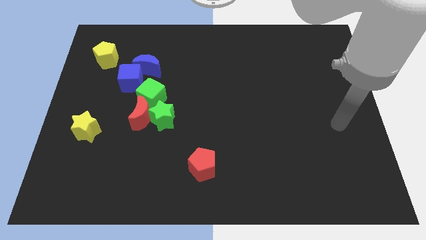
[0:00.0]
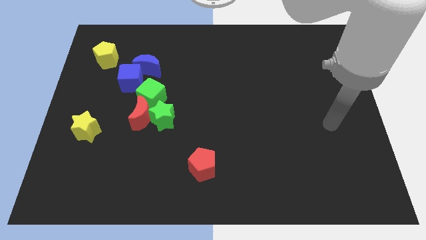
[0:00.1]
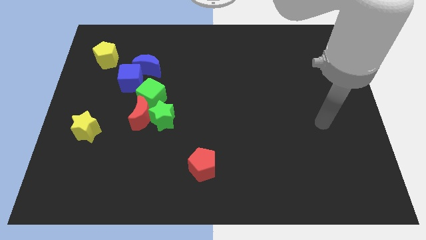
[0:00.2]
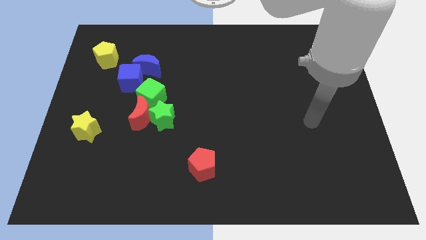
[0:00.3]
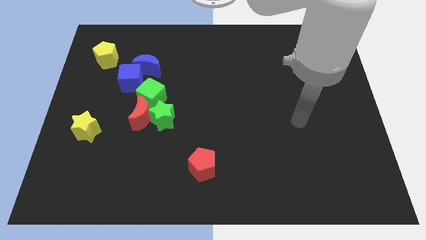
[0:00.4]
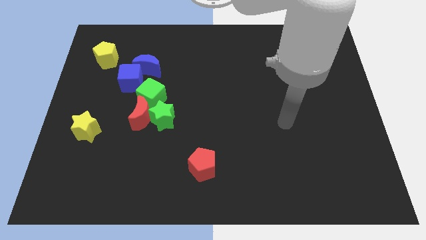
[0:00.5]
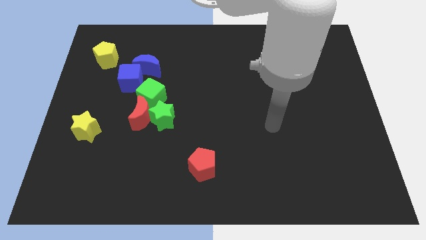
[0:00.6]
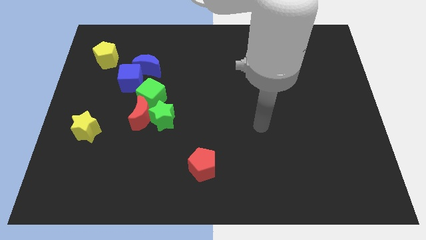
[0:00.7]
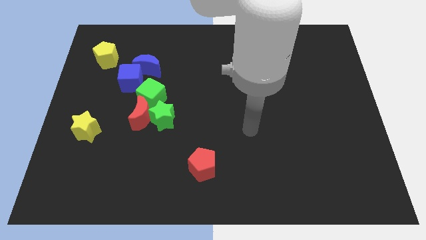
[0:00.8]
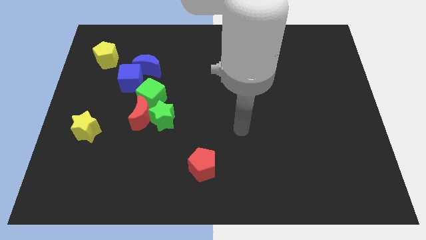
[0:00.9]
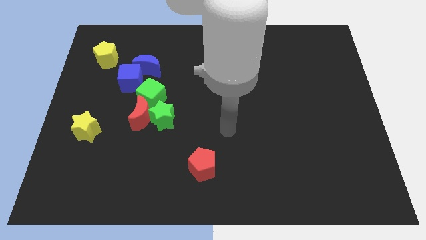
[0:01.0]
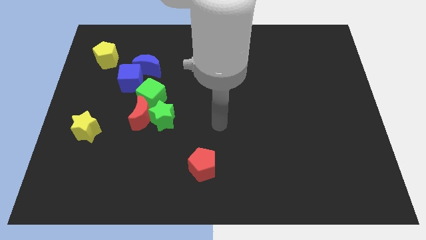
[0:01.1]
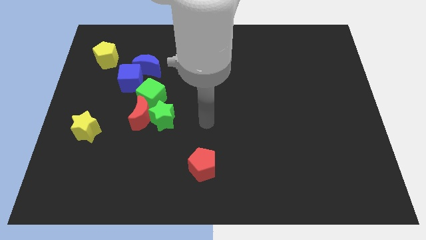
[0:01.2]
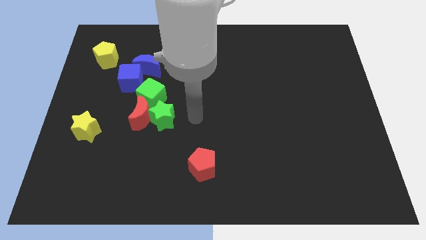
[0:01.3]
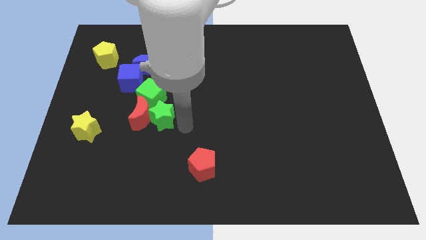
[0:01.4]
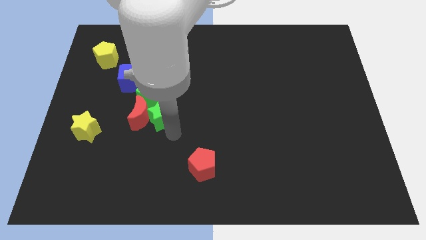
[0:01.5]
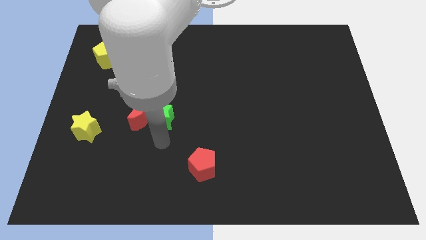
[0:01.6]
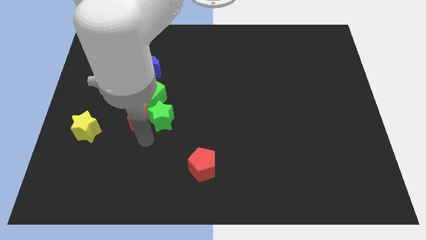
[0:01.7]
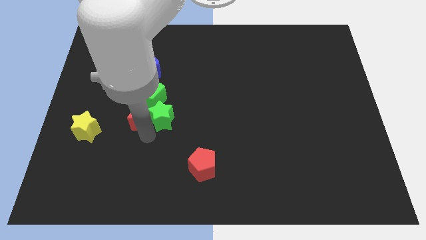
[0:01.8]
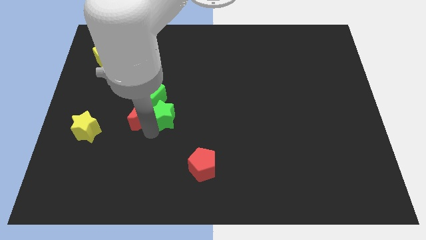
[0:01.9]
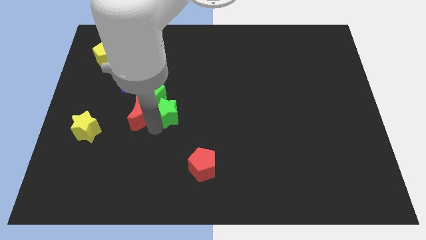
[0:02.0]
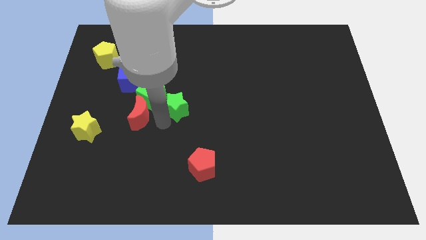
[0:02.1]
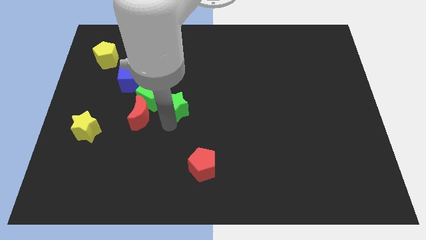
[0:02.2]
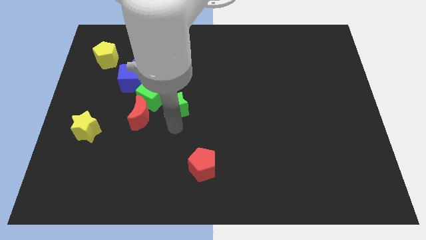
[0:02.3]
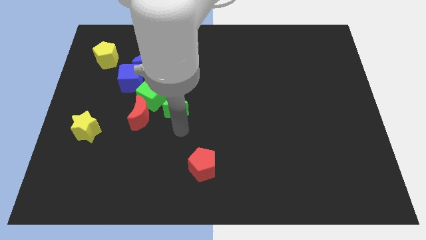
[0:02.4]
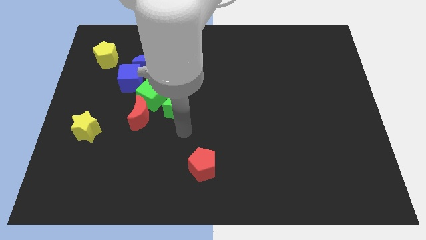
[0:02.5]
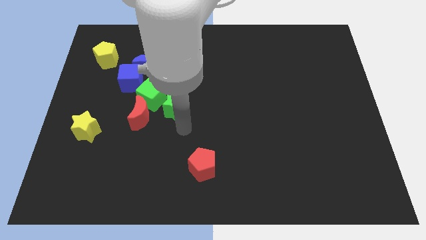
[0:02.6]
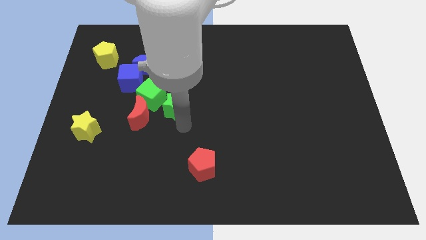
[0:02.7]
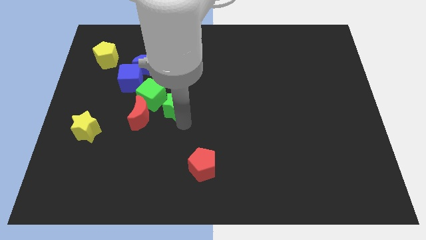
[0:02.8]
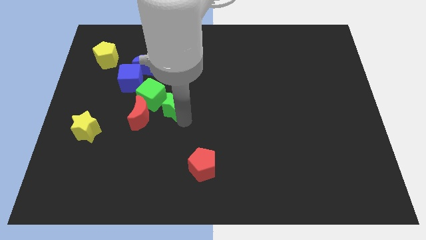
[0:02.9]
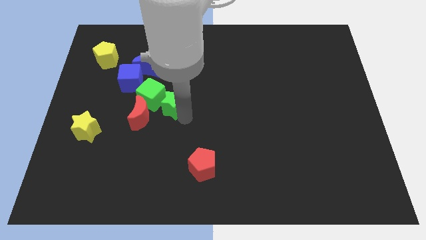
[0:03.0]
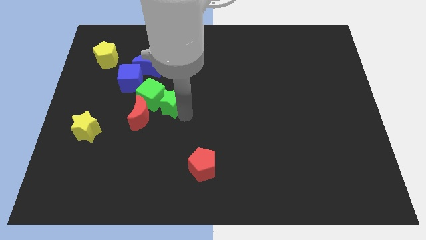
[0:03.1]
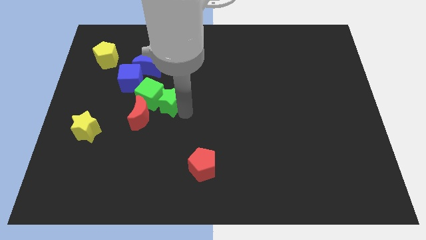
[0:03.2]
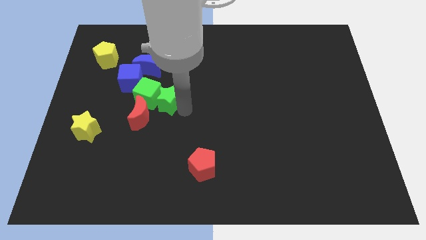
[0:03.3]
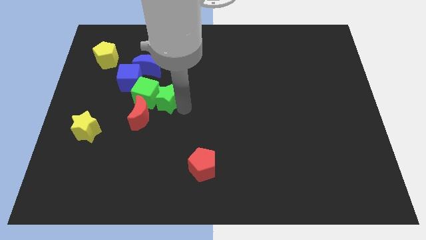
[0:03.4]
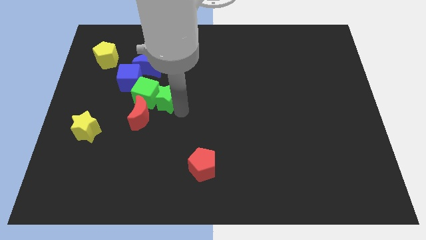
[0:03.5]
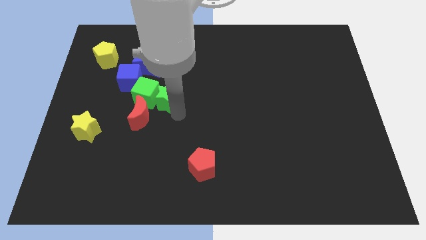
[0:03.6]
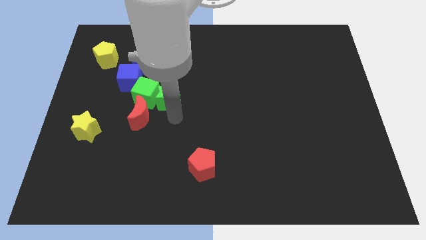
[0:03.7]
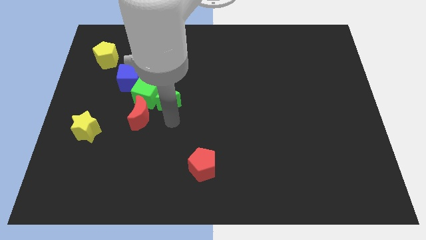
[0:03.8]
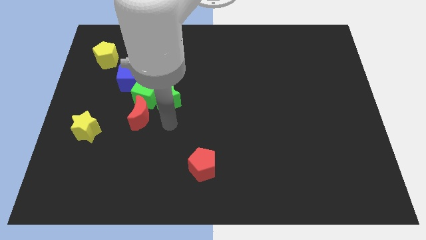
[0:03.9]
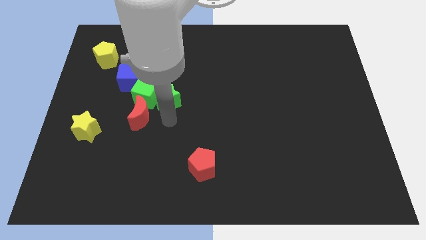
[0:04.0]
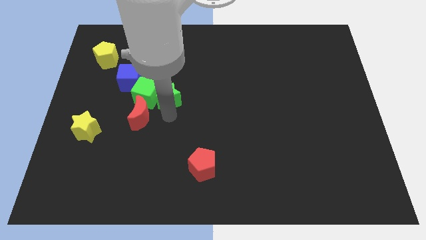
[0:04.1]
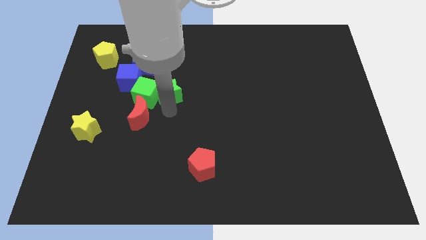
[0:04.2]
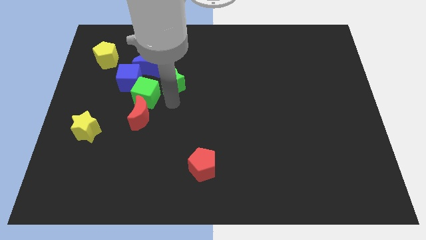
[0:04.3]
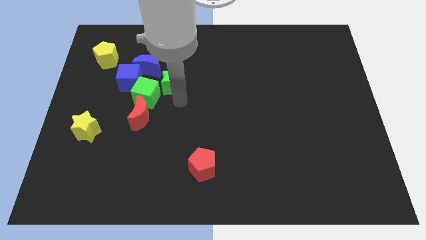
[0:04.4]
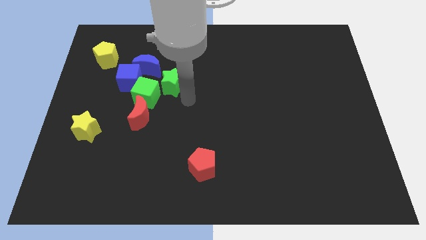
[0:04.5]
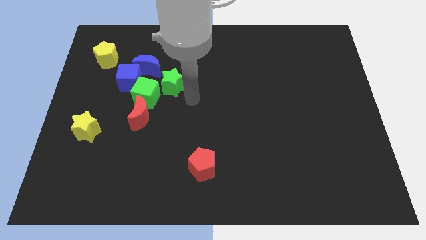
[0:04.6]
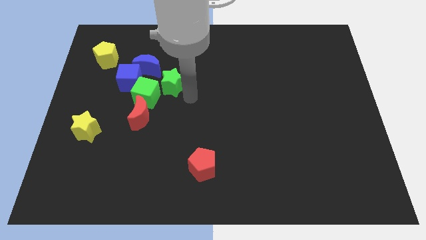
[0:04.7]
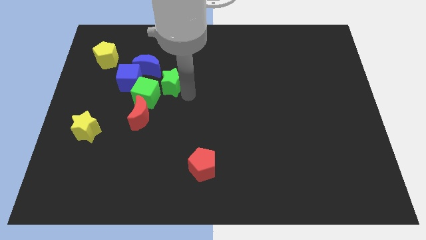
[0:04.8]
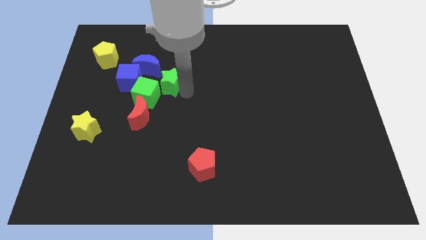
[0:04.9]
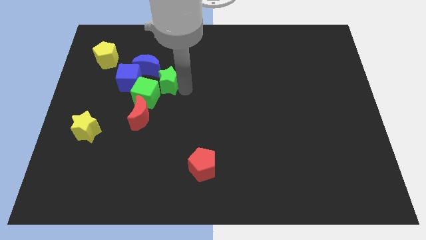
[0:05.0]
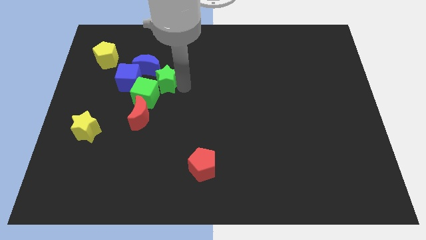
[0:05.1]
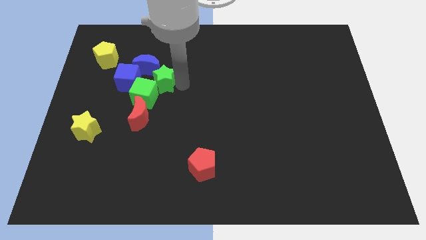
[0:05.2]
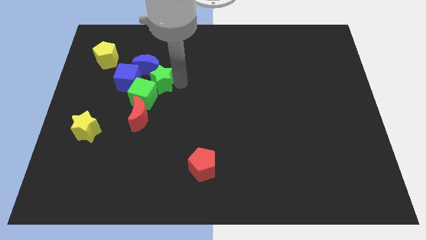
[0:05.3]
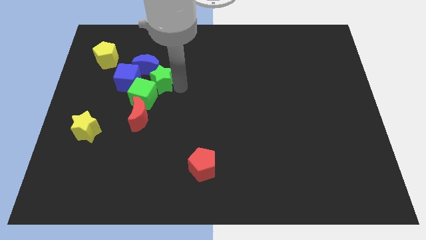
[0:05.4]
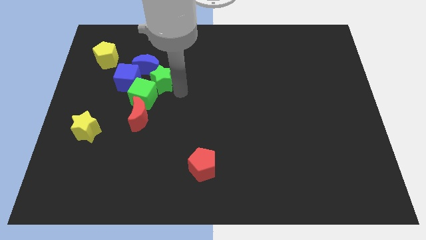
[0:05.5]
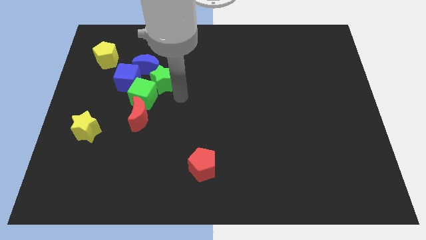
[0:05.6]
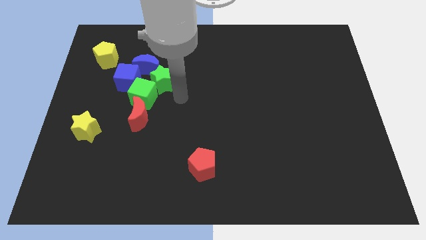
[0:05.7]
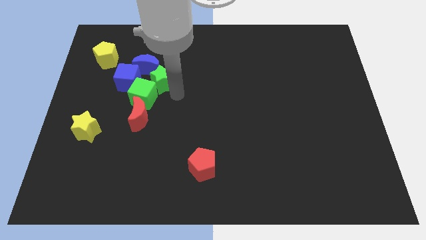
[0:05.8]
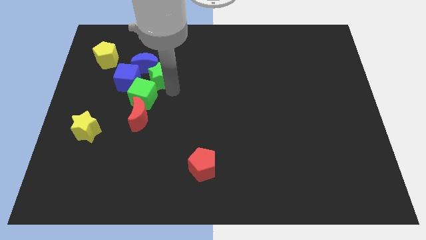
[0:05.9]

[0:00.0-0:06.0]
push the green star next to the blue moon

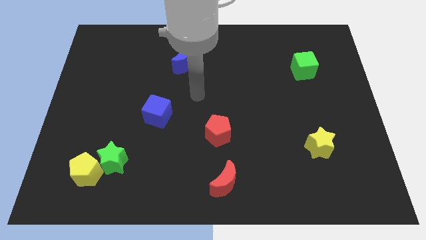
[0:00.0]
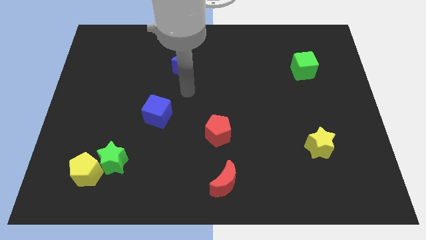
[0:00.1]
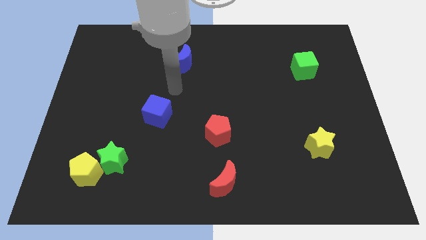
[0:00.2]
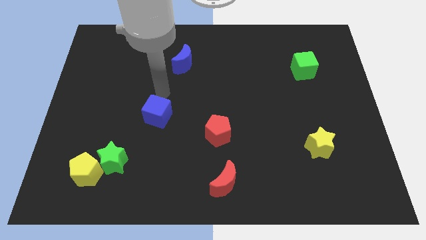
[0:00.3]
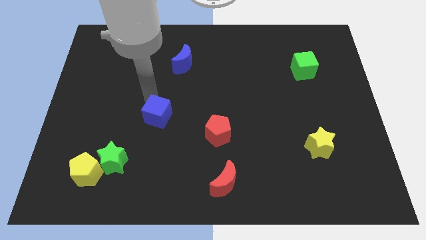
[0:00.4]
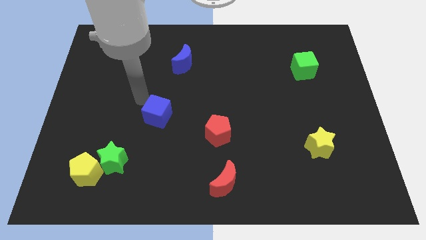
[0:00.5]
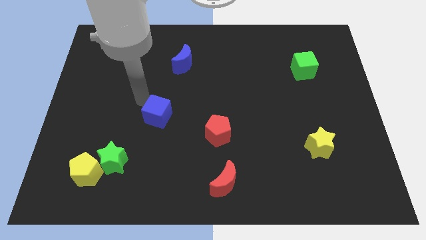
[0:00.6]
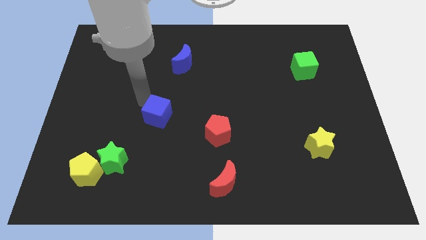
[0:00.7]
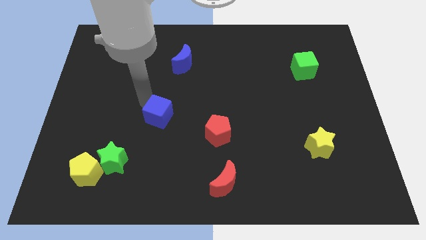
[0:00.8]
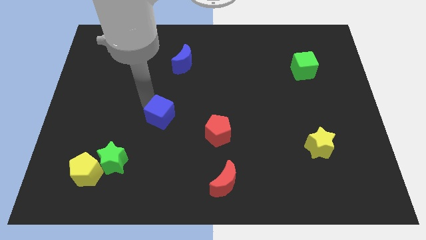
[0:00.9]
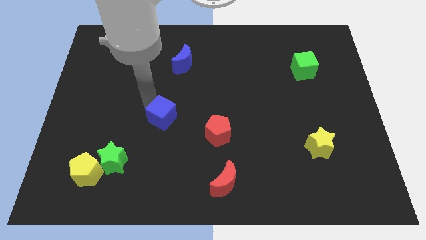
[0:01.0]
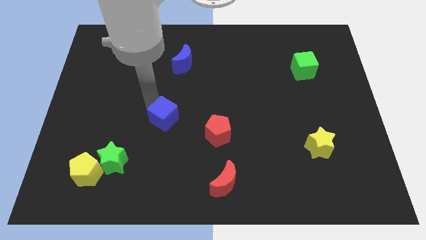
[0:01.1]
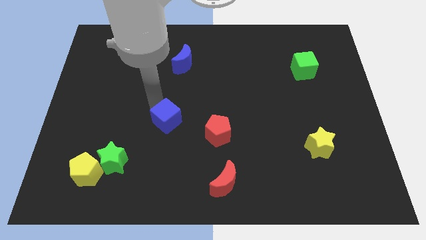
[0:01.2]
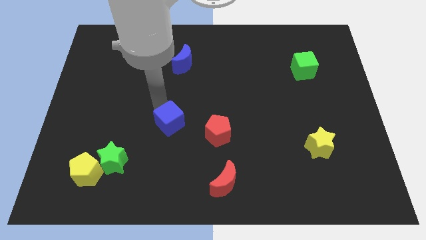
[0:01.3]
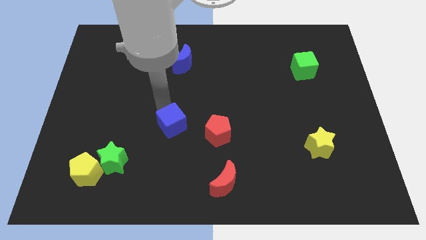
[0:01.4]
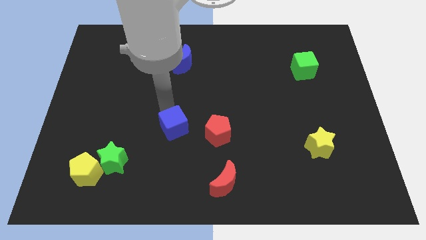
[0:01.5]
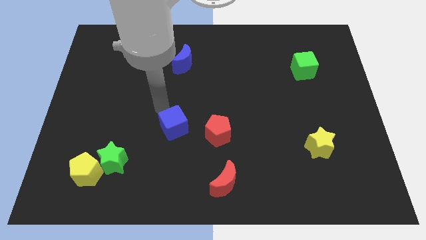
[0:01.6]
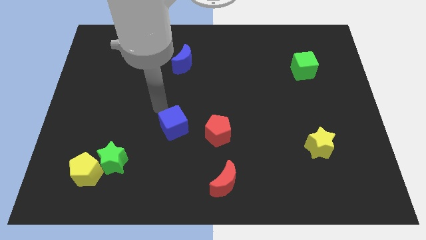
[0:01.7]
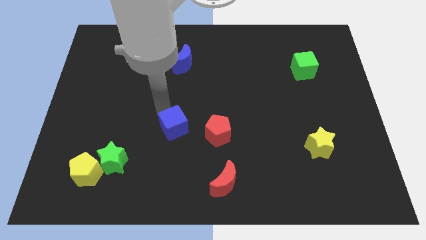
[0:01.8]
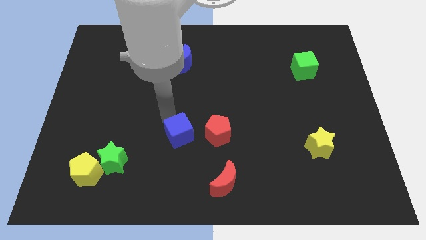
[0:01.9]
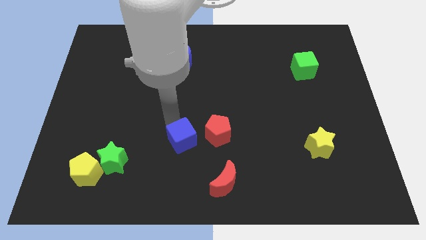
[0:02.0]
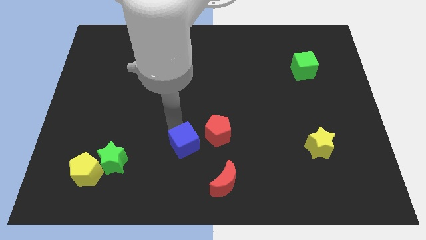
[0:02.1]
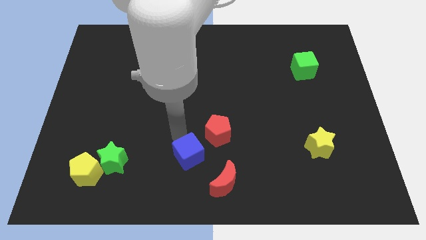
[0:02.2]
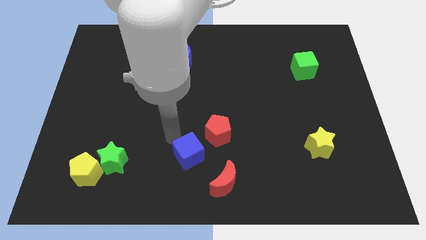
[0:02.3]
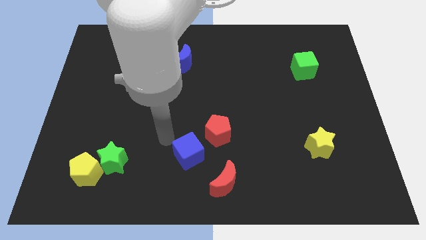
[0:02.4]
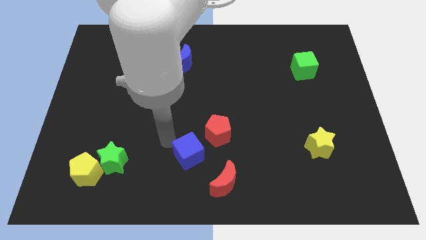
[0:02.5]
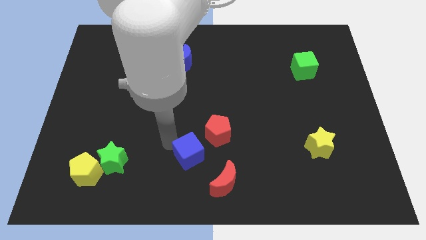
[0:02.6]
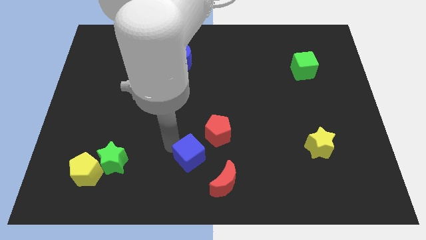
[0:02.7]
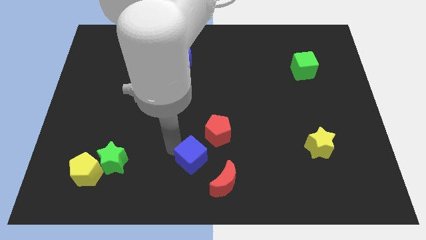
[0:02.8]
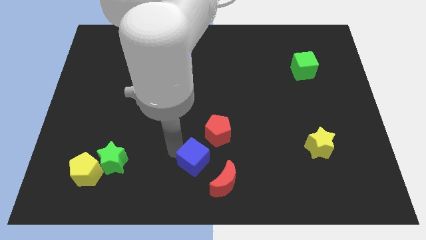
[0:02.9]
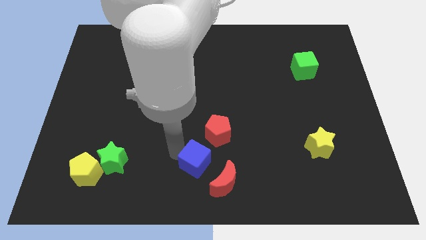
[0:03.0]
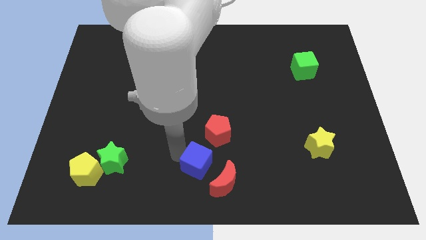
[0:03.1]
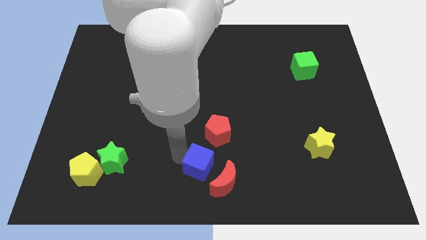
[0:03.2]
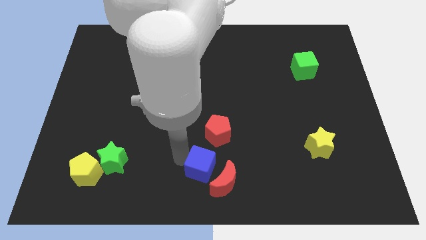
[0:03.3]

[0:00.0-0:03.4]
move the blue cube to the red moon
